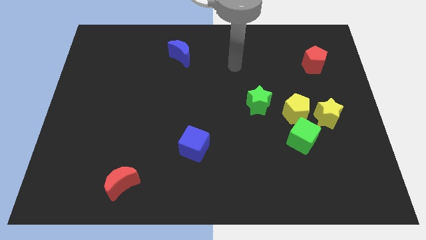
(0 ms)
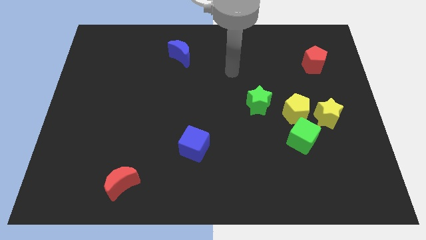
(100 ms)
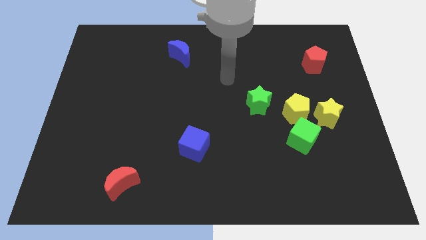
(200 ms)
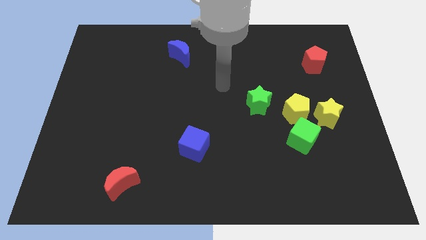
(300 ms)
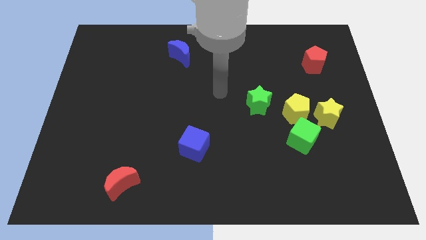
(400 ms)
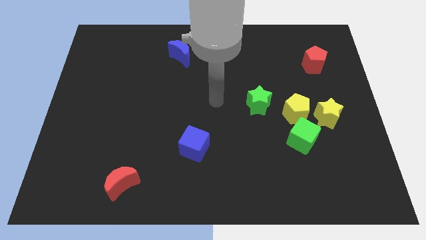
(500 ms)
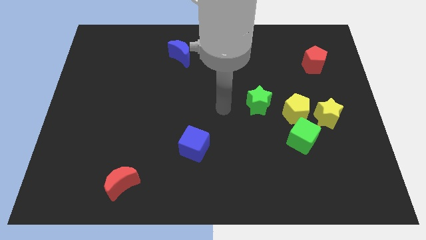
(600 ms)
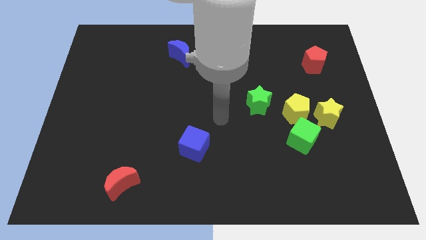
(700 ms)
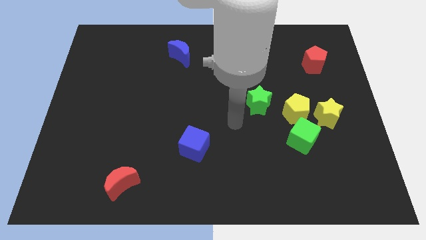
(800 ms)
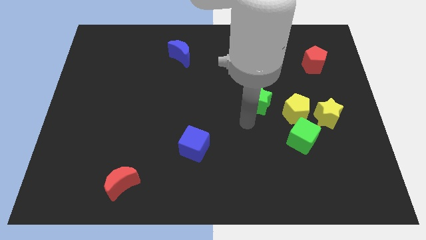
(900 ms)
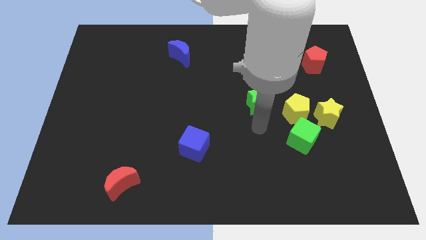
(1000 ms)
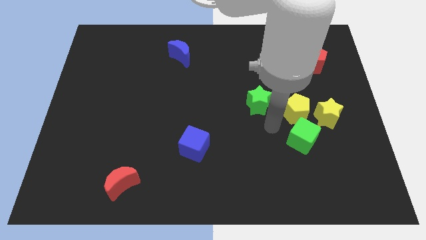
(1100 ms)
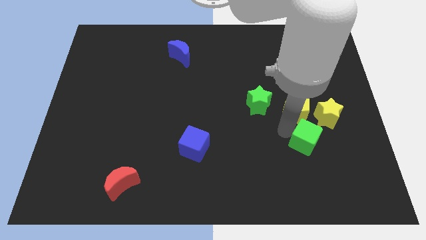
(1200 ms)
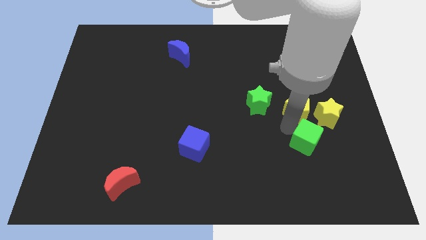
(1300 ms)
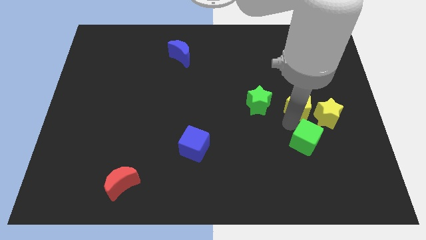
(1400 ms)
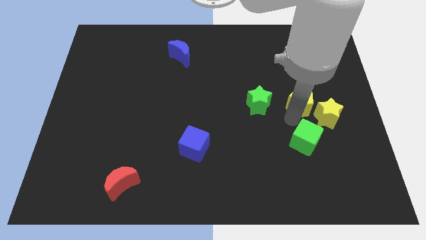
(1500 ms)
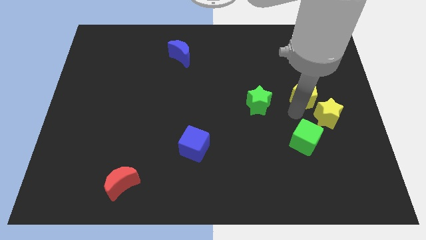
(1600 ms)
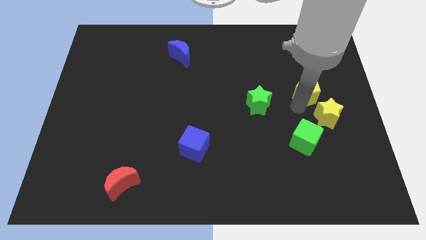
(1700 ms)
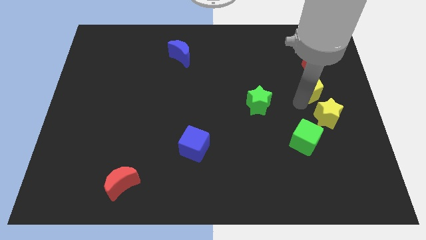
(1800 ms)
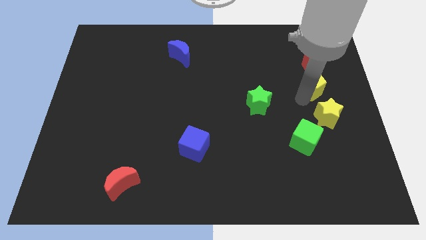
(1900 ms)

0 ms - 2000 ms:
pull the yellow pentagon apart from the yellow star, green cube, and green star

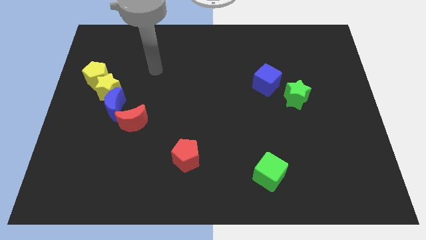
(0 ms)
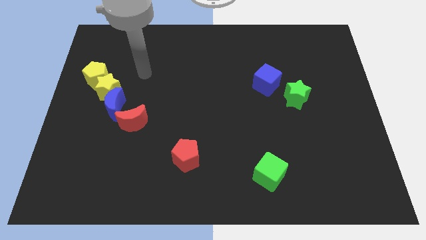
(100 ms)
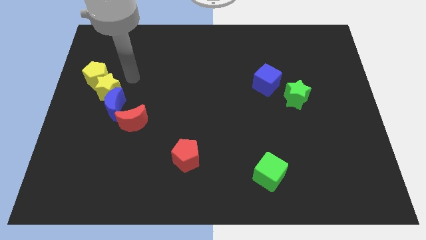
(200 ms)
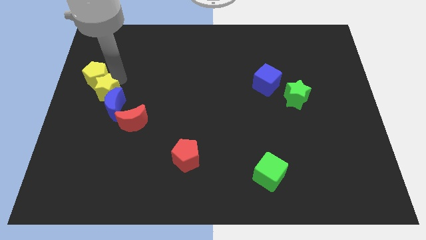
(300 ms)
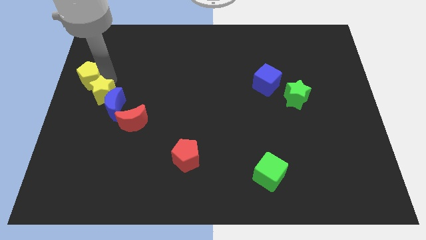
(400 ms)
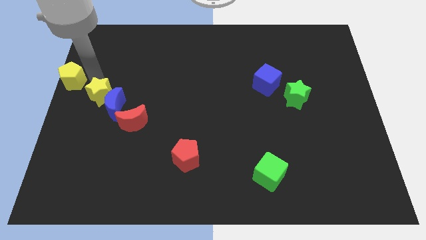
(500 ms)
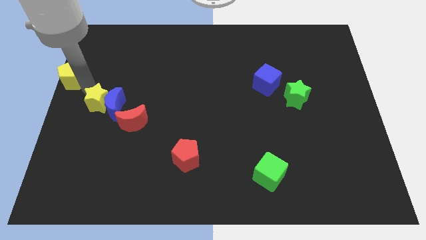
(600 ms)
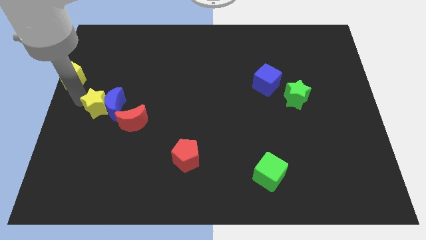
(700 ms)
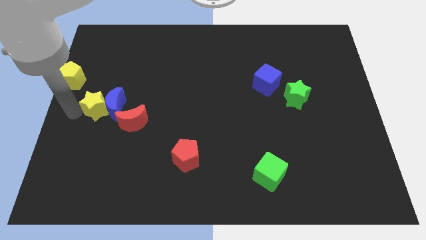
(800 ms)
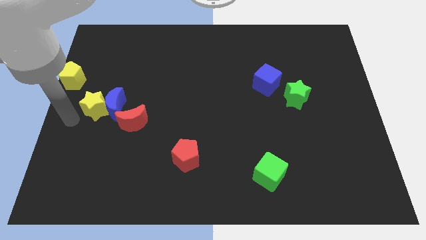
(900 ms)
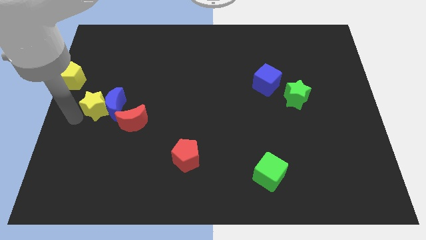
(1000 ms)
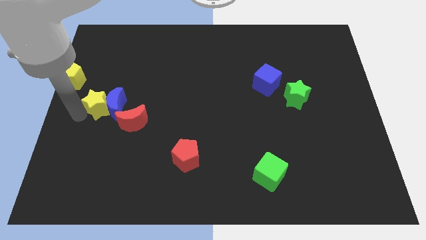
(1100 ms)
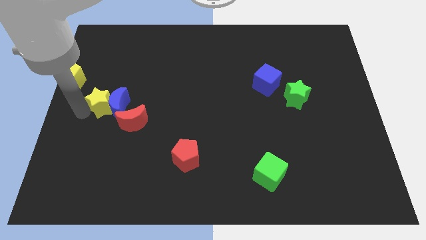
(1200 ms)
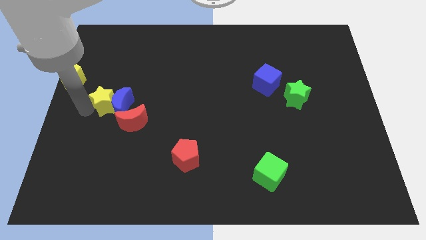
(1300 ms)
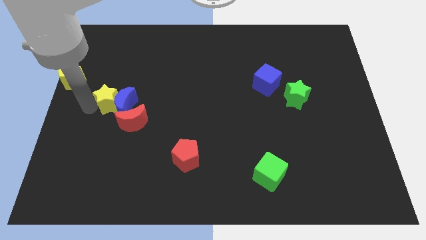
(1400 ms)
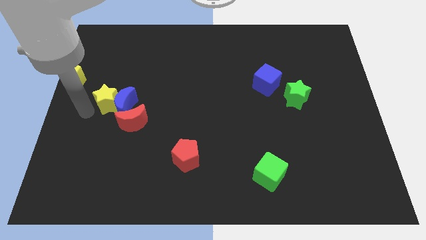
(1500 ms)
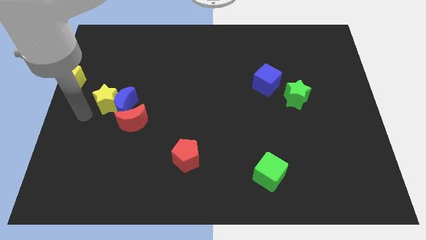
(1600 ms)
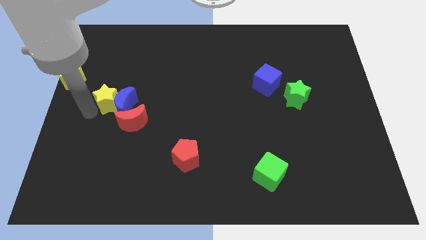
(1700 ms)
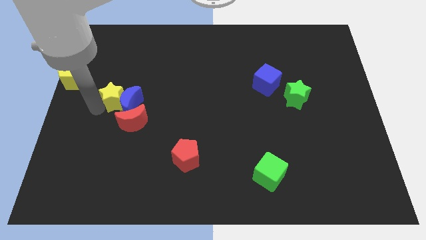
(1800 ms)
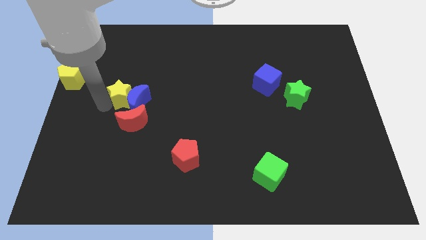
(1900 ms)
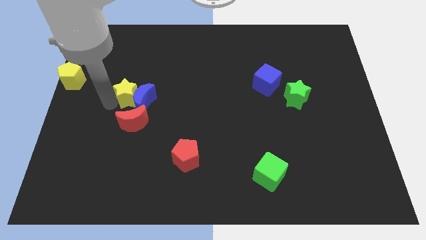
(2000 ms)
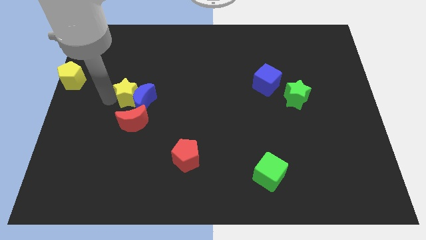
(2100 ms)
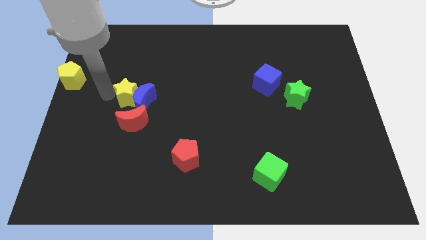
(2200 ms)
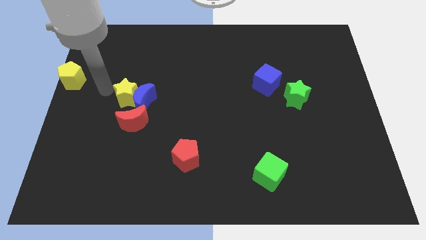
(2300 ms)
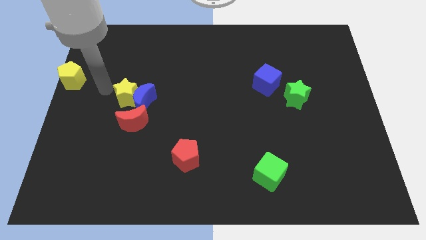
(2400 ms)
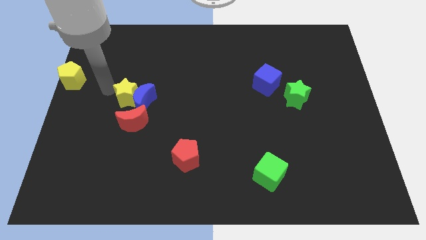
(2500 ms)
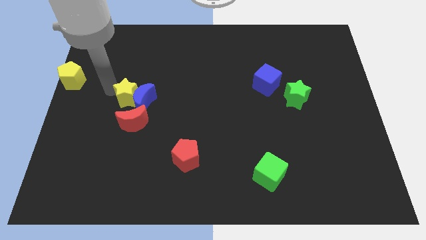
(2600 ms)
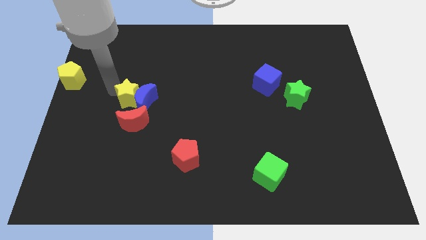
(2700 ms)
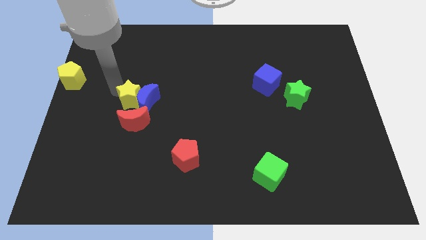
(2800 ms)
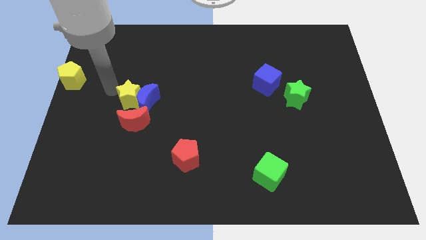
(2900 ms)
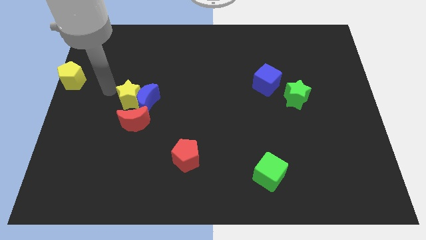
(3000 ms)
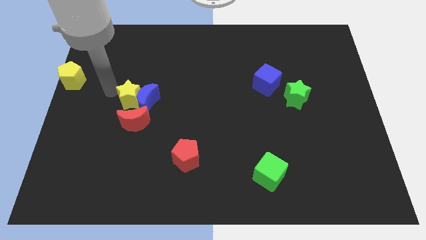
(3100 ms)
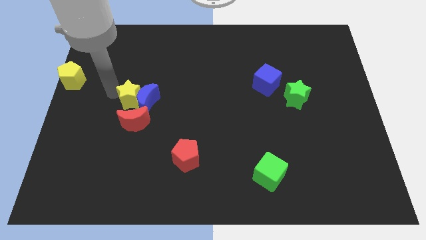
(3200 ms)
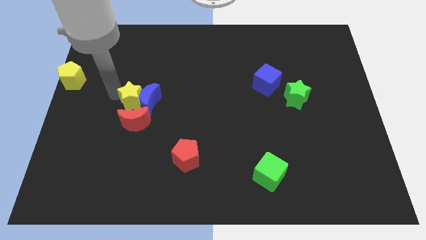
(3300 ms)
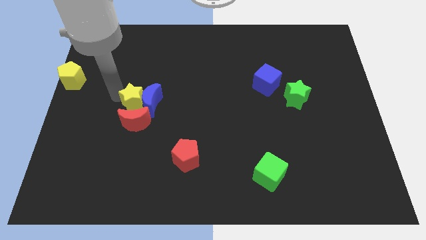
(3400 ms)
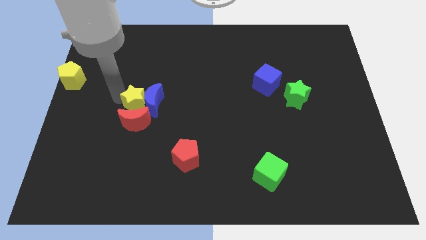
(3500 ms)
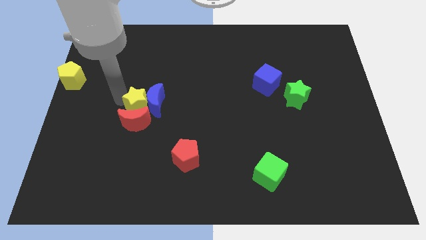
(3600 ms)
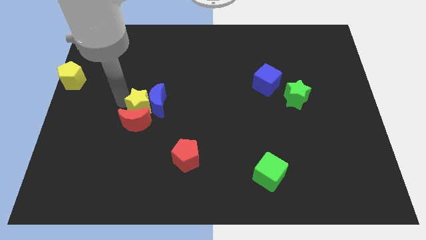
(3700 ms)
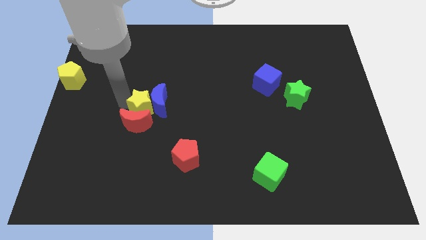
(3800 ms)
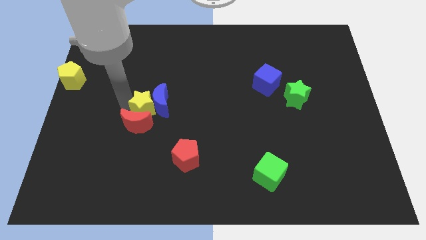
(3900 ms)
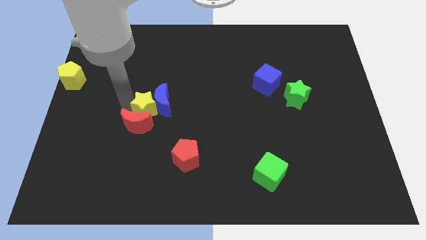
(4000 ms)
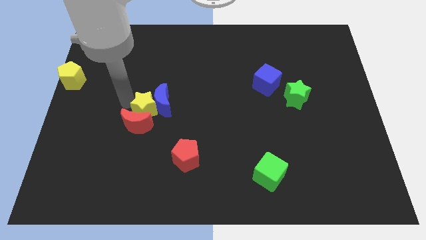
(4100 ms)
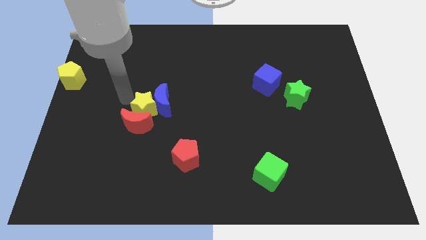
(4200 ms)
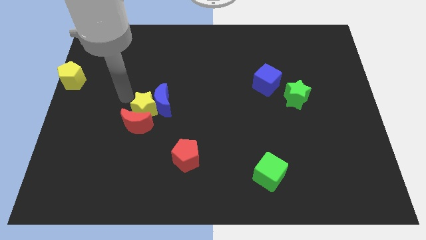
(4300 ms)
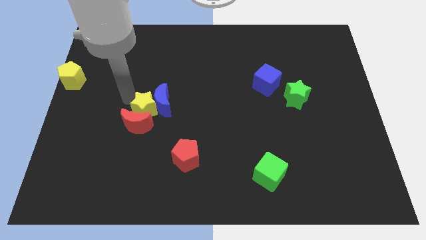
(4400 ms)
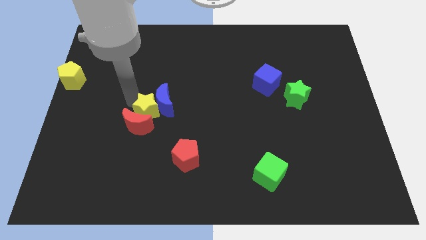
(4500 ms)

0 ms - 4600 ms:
separate the yellow star from the blue moon and yellow pentagon

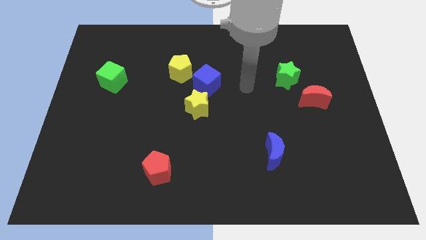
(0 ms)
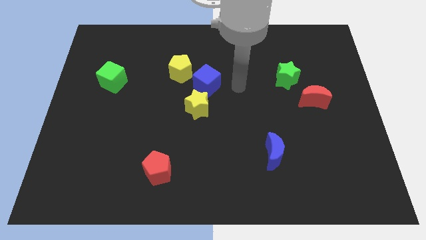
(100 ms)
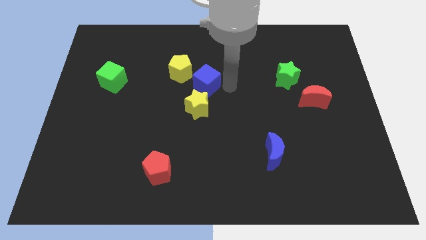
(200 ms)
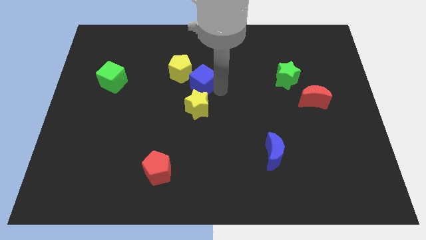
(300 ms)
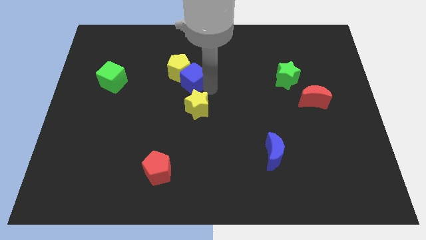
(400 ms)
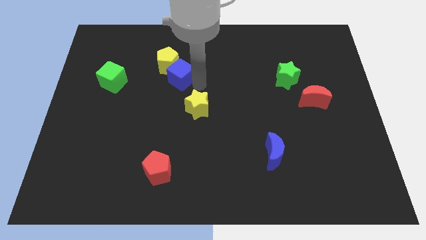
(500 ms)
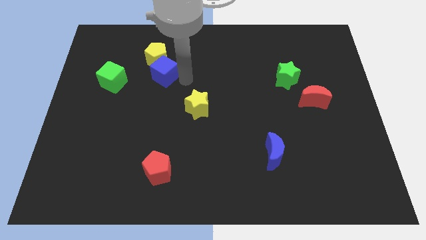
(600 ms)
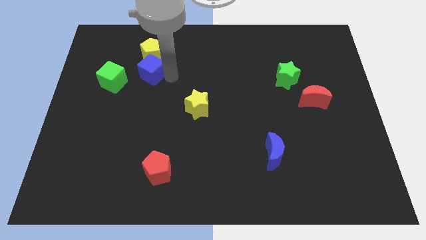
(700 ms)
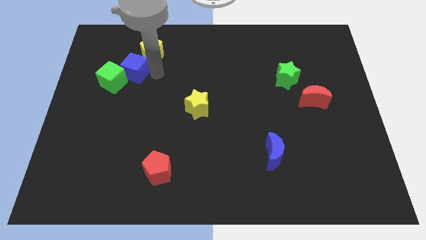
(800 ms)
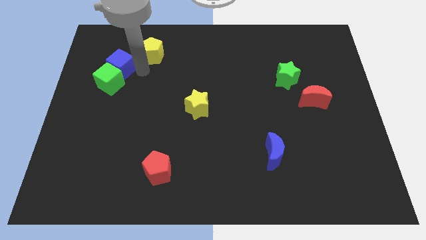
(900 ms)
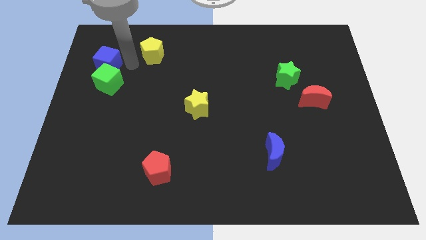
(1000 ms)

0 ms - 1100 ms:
separate the yellow pentagon from the blue cube

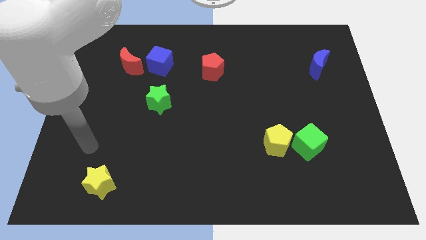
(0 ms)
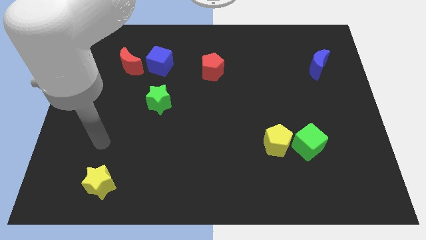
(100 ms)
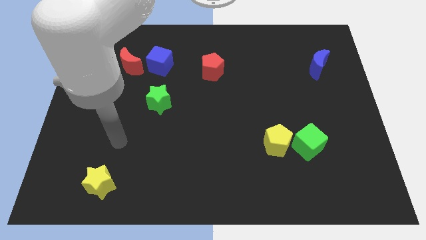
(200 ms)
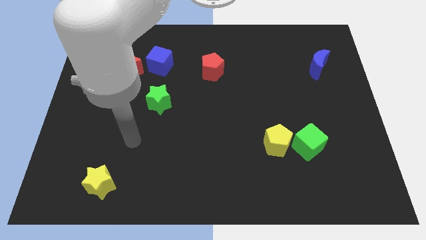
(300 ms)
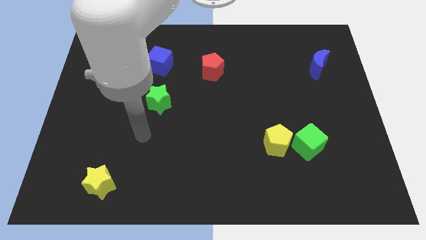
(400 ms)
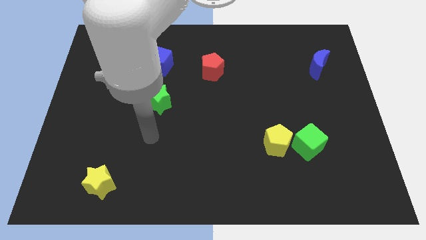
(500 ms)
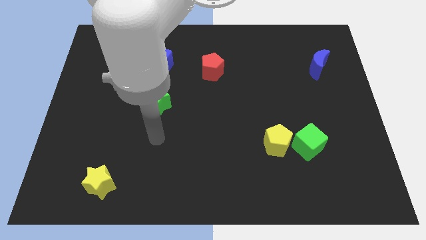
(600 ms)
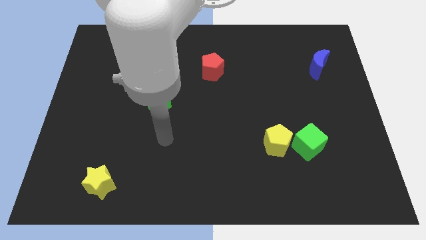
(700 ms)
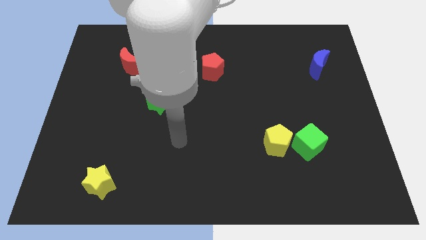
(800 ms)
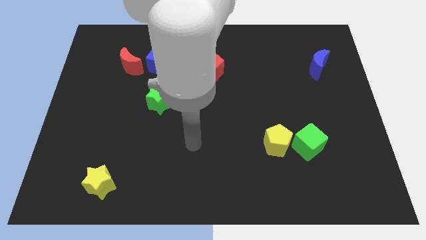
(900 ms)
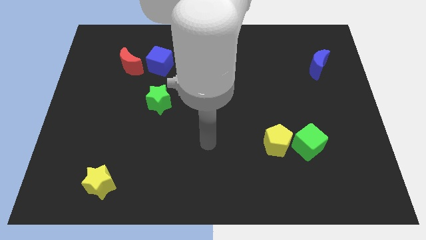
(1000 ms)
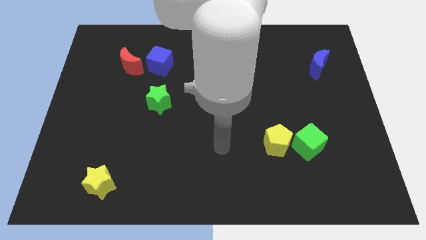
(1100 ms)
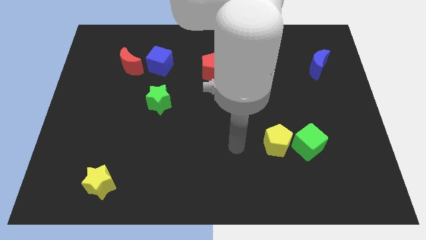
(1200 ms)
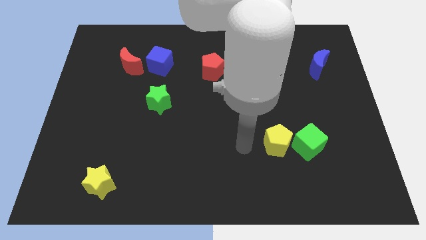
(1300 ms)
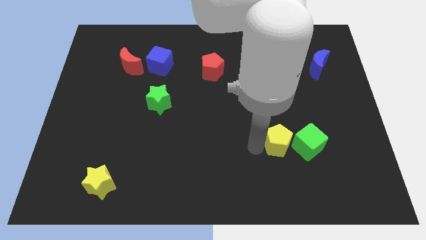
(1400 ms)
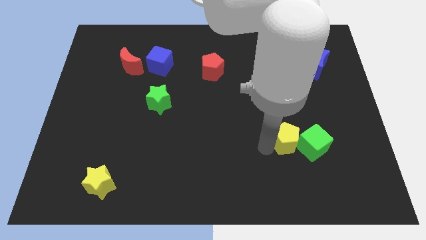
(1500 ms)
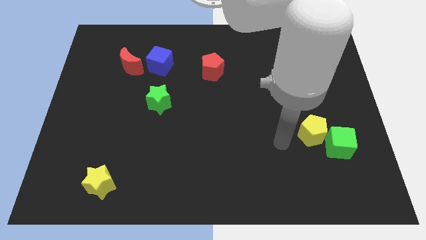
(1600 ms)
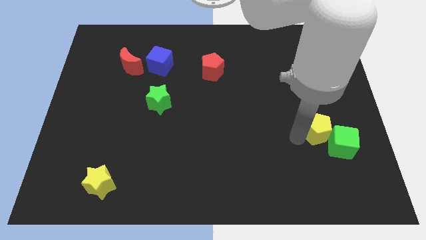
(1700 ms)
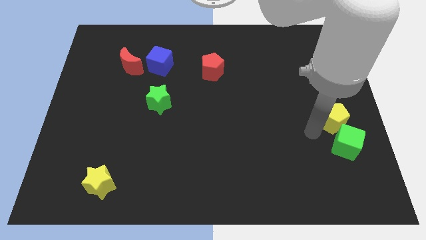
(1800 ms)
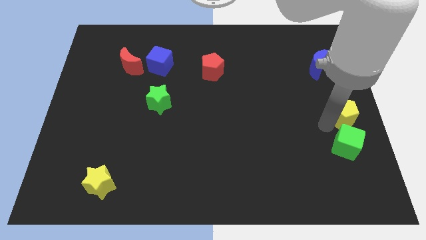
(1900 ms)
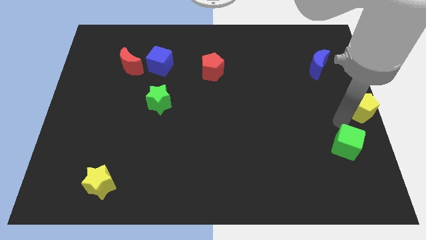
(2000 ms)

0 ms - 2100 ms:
pull the green cube apart from the yellow pentagon
